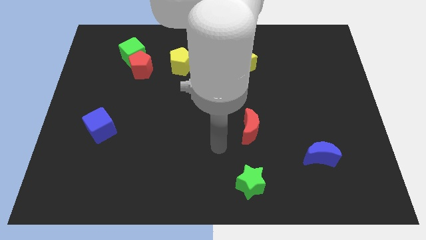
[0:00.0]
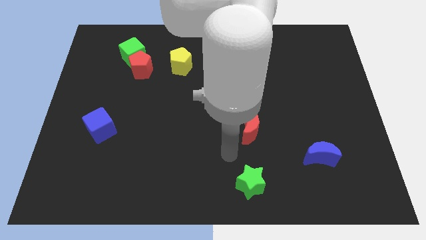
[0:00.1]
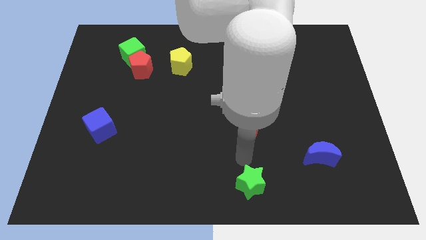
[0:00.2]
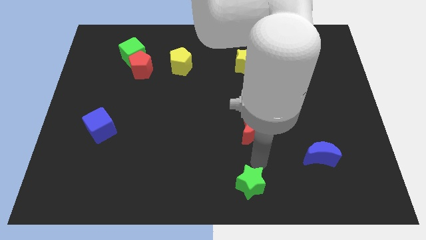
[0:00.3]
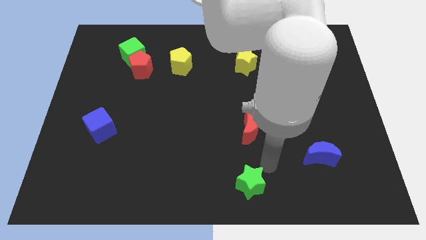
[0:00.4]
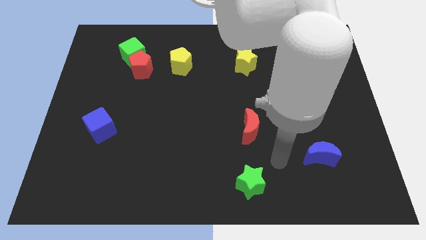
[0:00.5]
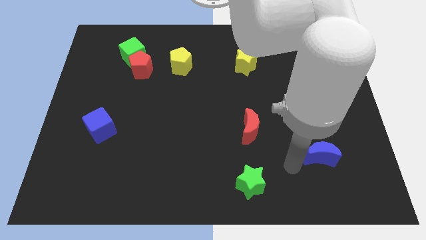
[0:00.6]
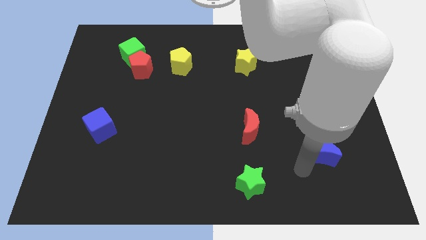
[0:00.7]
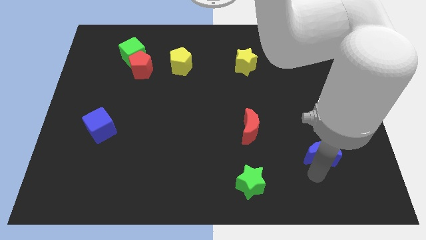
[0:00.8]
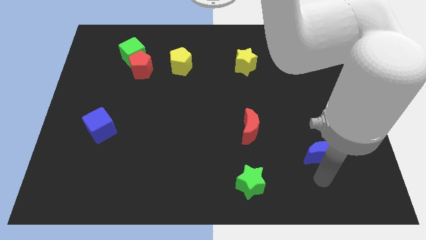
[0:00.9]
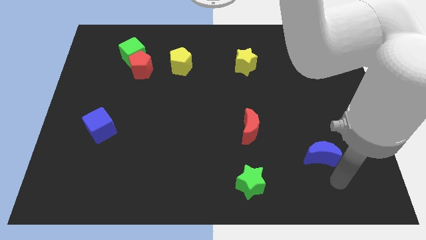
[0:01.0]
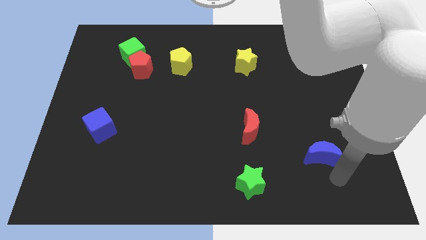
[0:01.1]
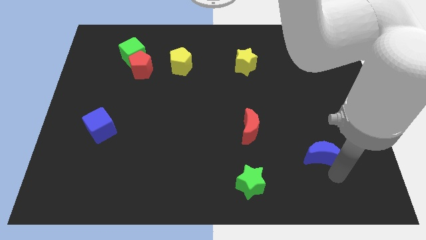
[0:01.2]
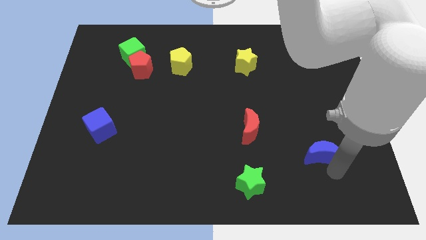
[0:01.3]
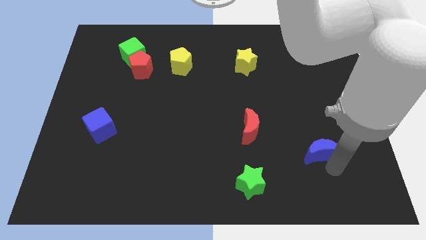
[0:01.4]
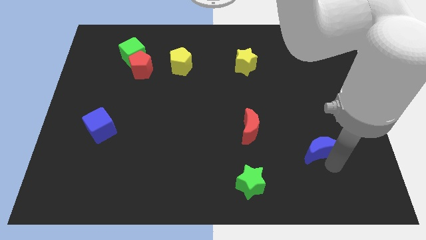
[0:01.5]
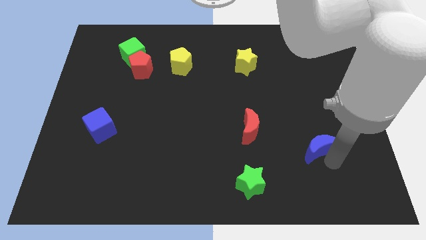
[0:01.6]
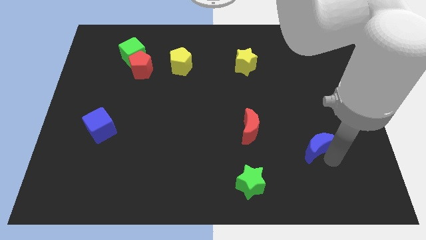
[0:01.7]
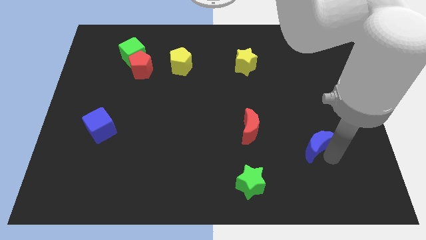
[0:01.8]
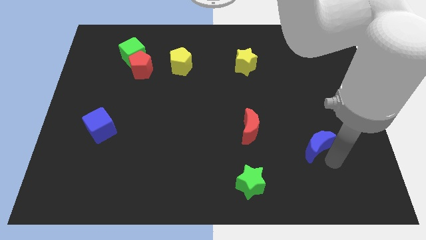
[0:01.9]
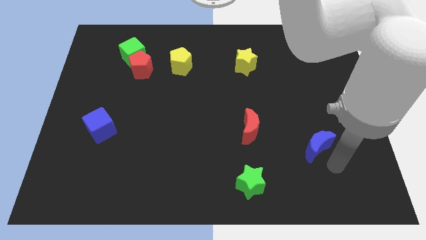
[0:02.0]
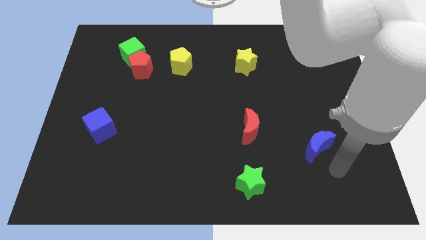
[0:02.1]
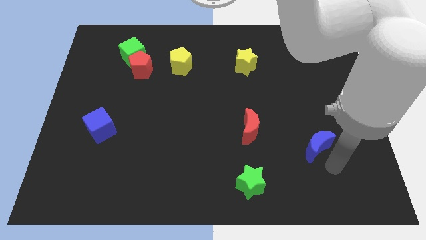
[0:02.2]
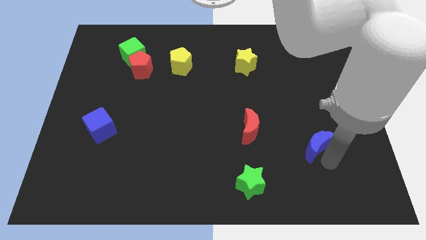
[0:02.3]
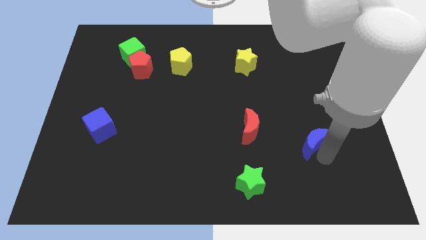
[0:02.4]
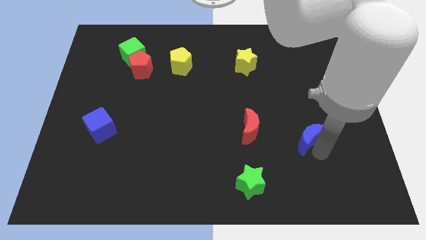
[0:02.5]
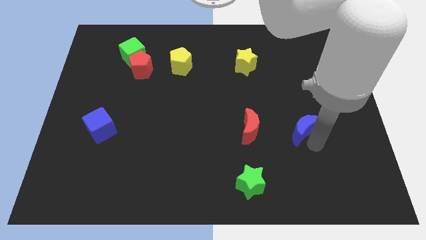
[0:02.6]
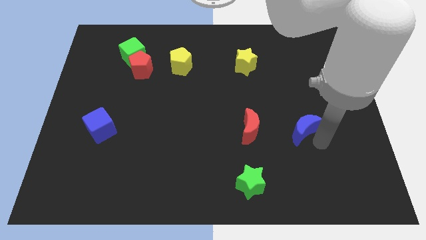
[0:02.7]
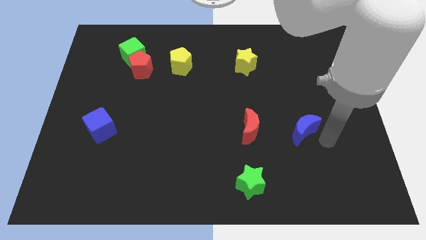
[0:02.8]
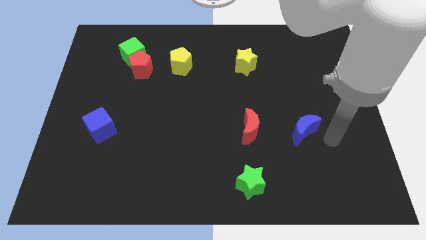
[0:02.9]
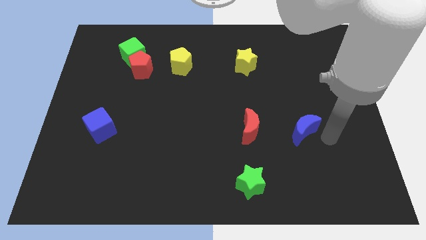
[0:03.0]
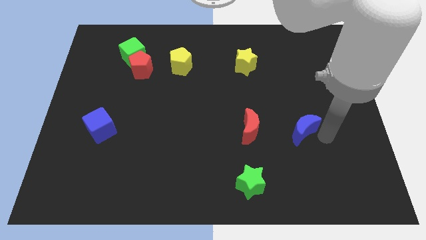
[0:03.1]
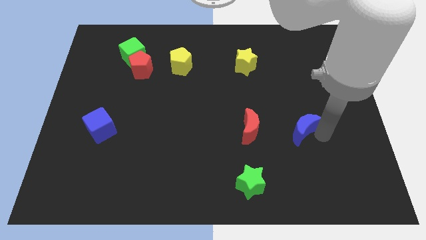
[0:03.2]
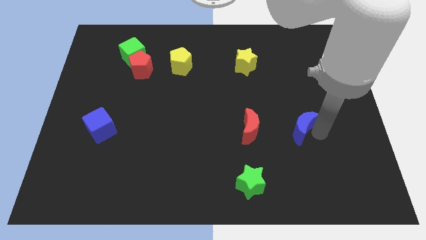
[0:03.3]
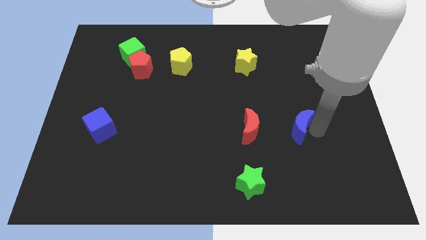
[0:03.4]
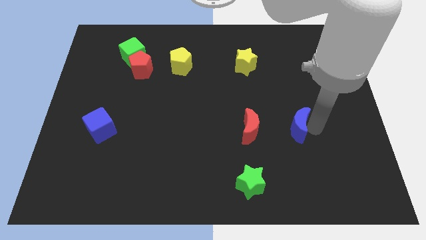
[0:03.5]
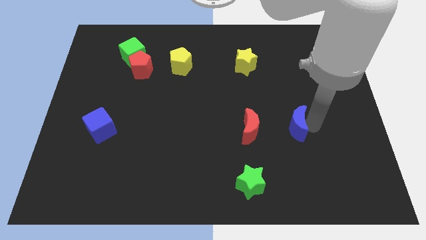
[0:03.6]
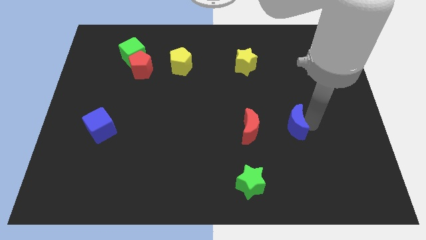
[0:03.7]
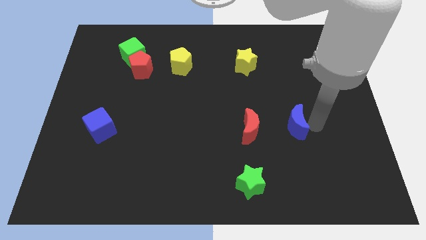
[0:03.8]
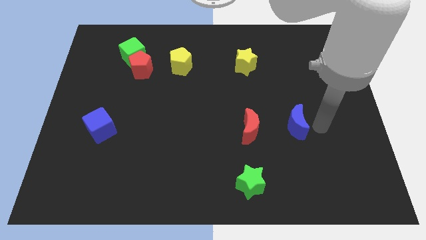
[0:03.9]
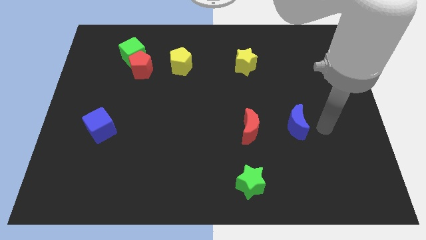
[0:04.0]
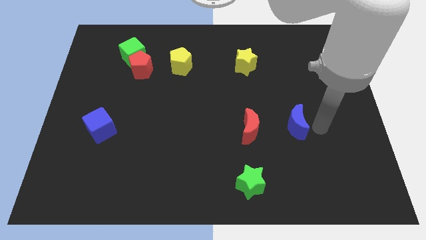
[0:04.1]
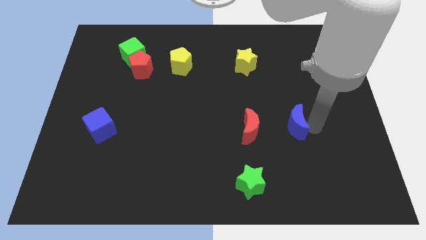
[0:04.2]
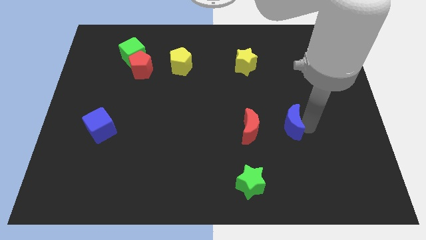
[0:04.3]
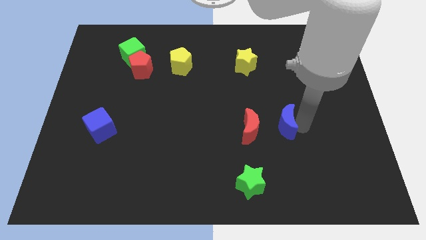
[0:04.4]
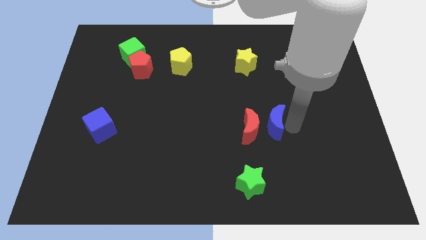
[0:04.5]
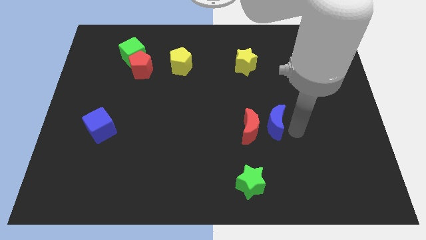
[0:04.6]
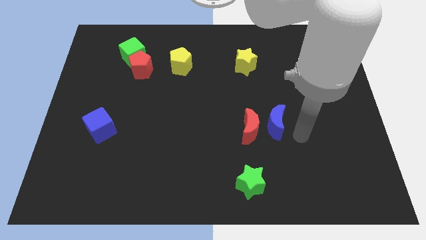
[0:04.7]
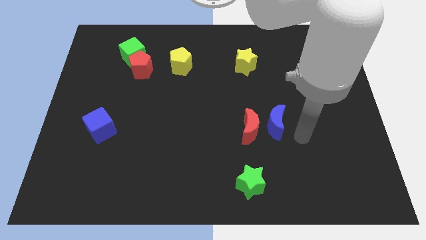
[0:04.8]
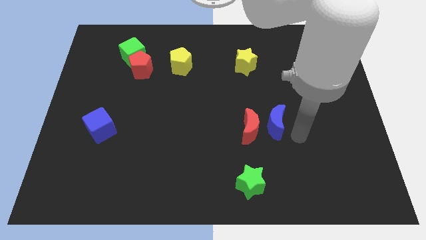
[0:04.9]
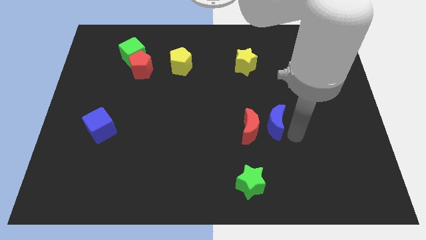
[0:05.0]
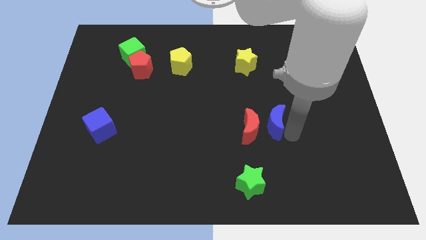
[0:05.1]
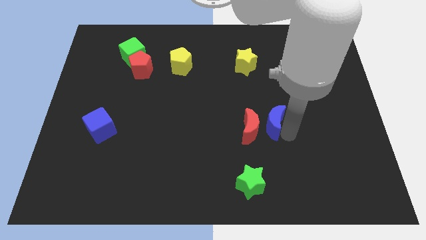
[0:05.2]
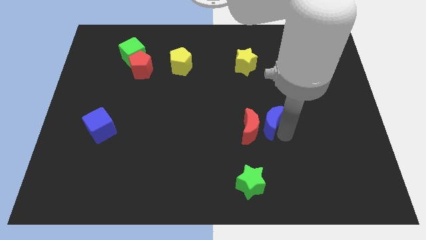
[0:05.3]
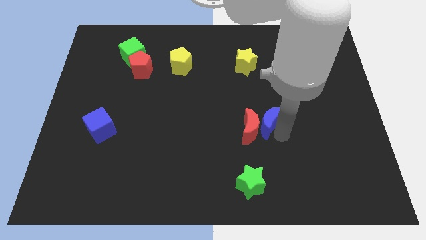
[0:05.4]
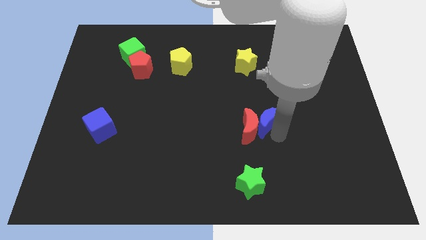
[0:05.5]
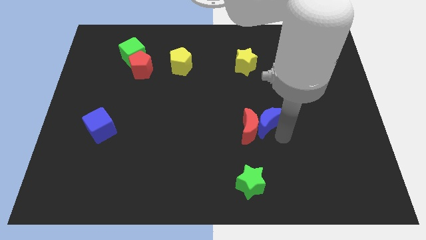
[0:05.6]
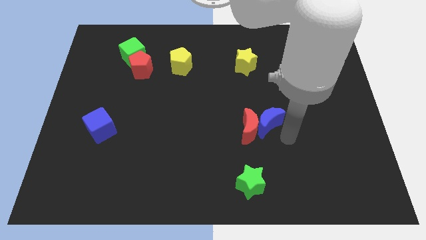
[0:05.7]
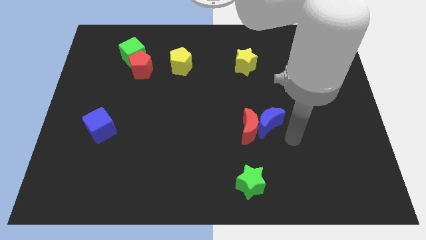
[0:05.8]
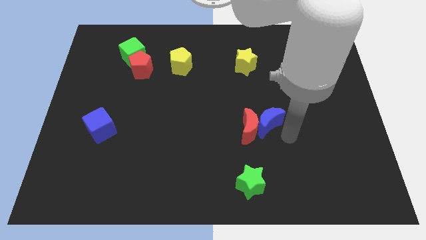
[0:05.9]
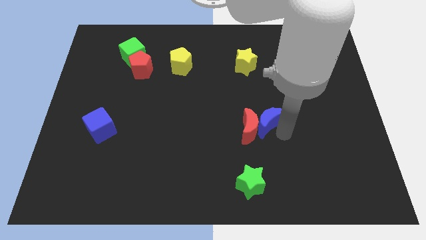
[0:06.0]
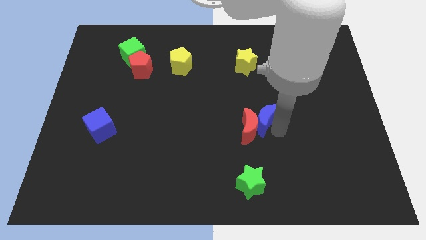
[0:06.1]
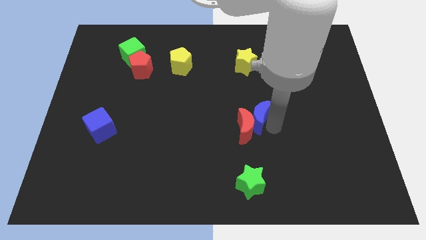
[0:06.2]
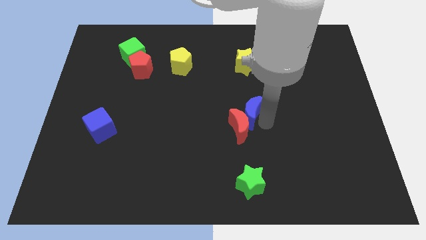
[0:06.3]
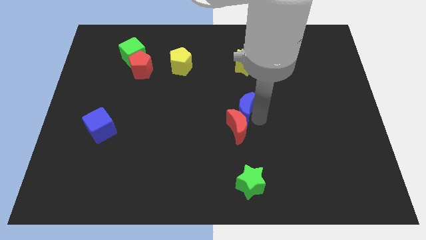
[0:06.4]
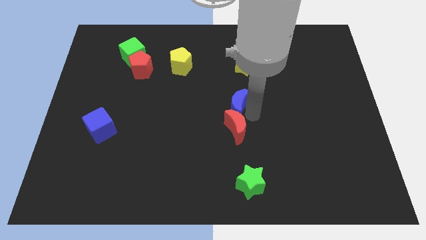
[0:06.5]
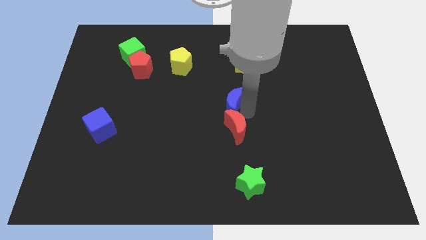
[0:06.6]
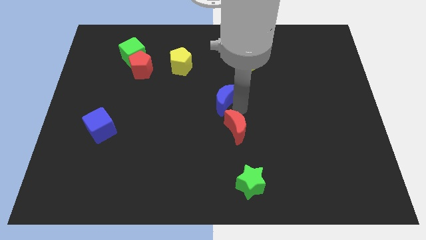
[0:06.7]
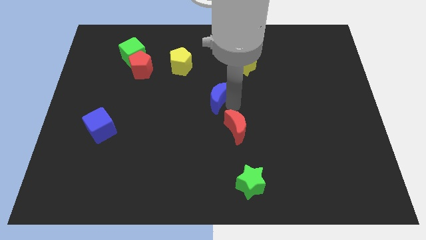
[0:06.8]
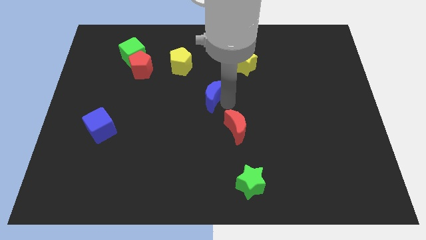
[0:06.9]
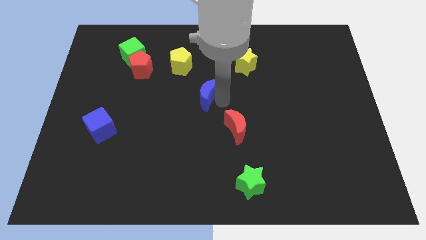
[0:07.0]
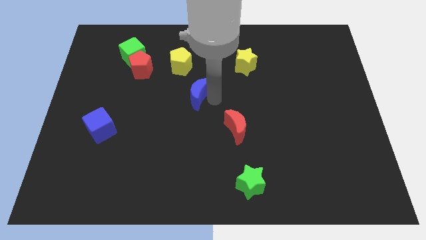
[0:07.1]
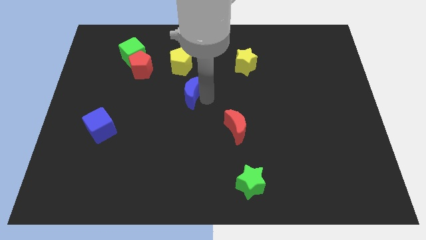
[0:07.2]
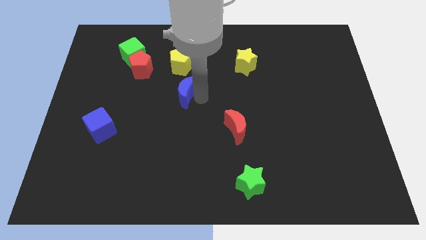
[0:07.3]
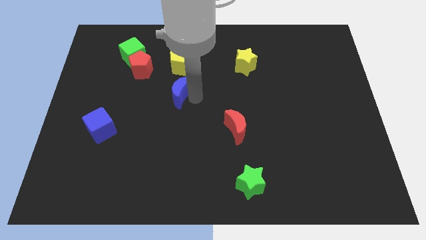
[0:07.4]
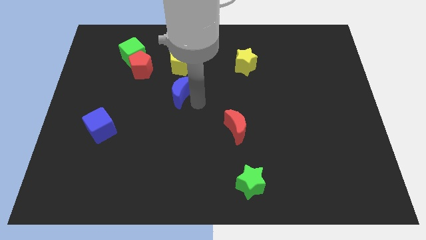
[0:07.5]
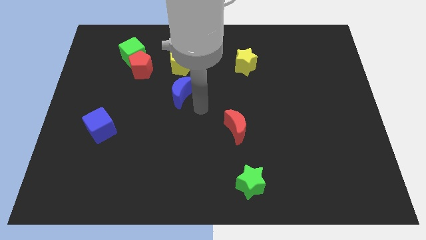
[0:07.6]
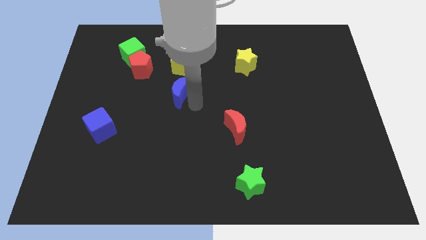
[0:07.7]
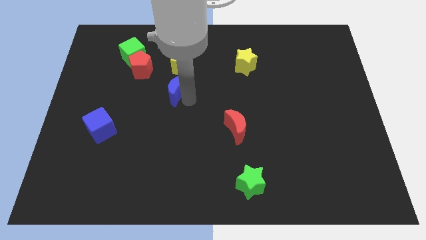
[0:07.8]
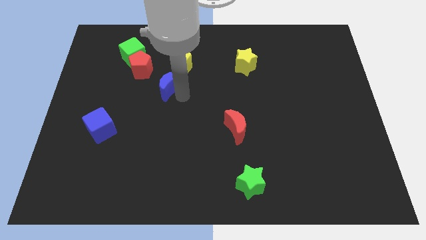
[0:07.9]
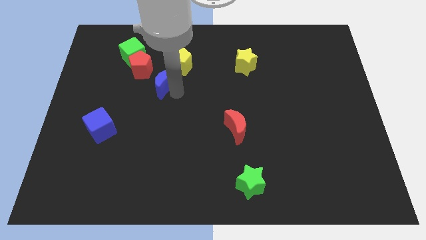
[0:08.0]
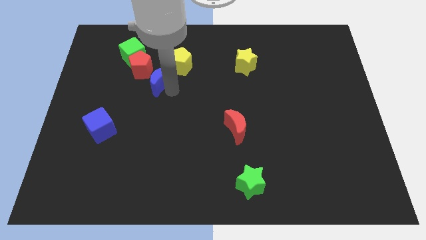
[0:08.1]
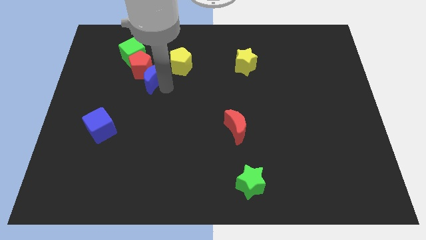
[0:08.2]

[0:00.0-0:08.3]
move the blue moon close to the red pentagon
